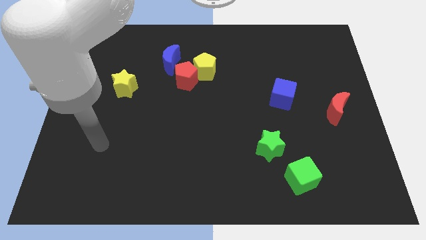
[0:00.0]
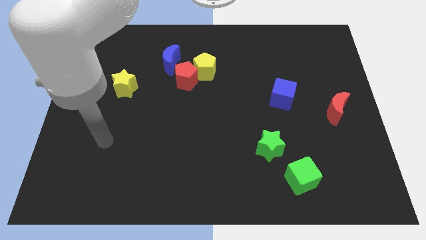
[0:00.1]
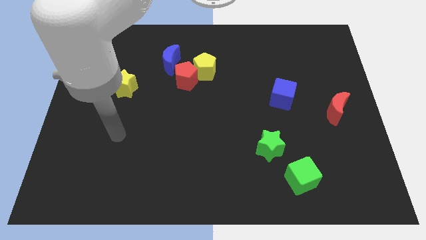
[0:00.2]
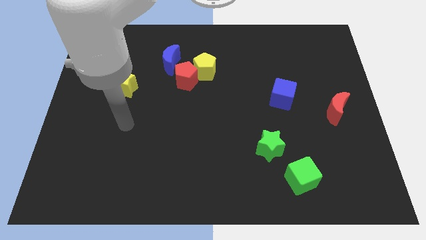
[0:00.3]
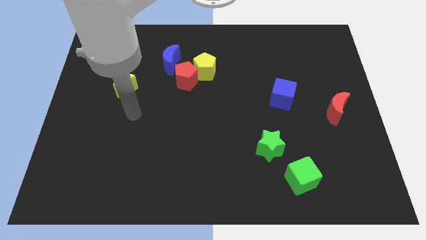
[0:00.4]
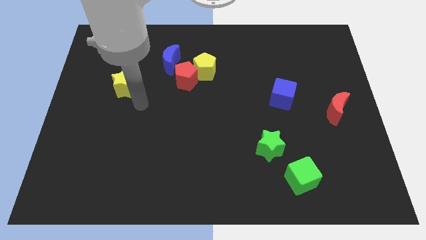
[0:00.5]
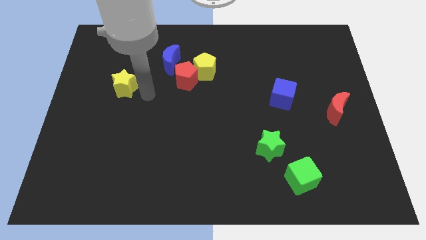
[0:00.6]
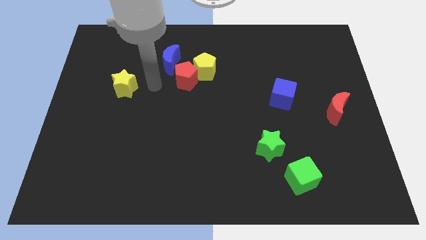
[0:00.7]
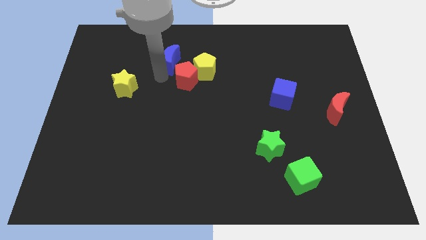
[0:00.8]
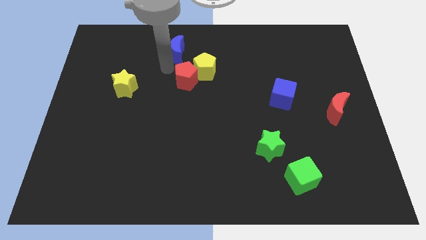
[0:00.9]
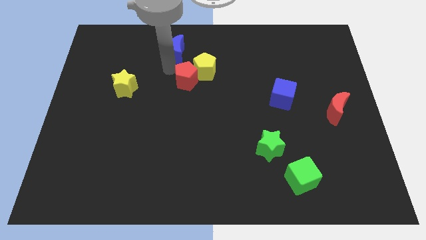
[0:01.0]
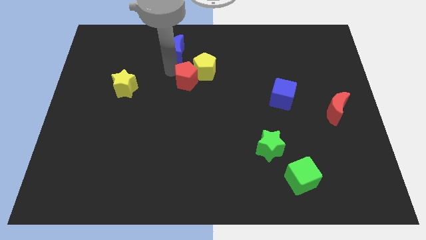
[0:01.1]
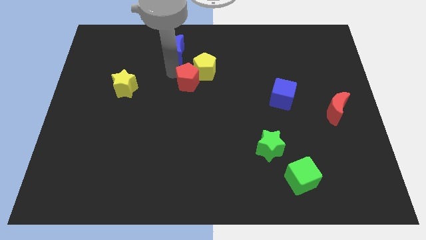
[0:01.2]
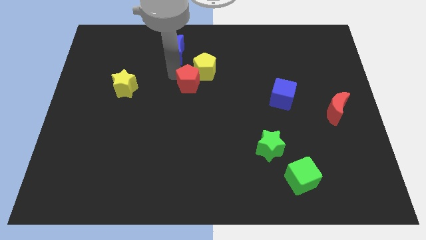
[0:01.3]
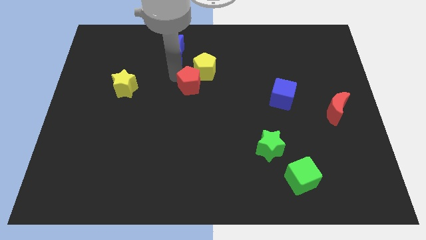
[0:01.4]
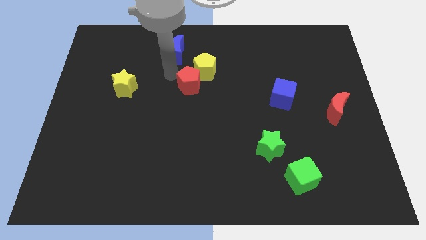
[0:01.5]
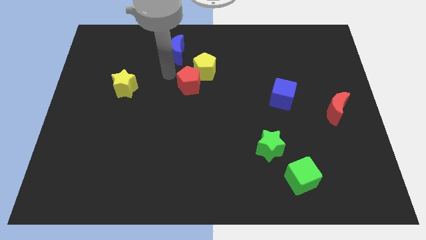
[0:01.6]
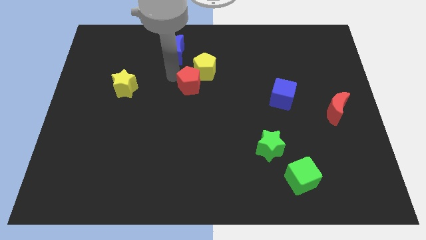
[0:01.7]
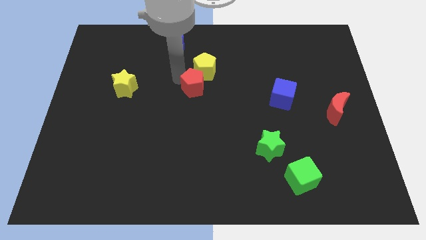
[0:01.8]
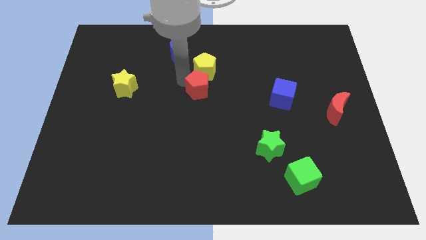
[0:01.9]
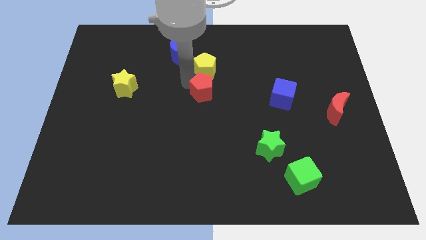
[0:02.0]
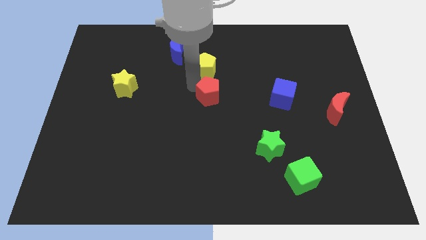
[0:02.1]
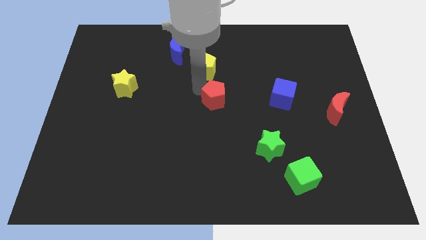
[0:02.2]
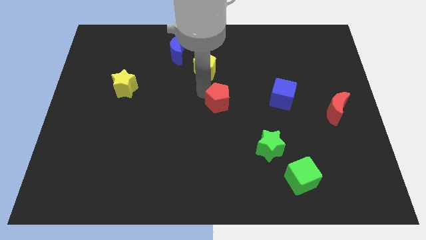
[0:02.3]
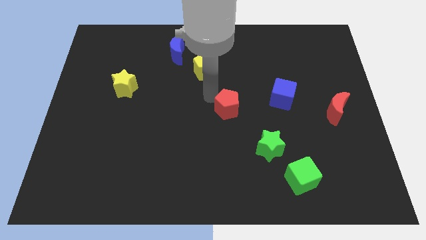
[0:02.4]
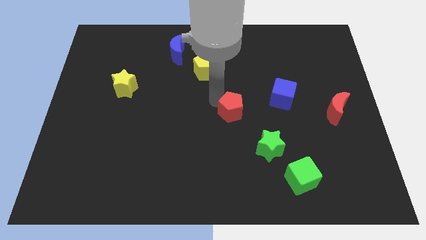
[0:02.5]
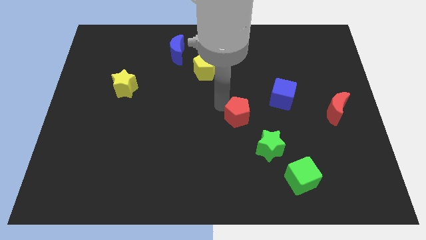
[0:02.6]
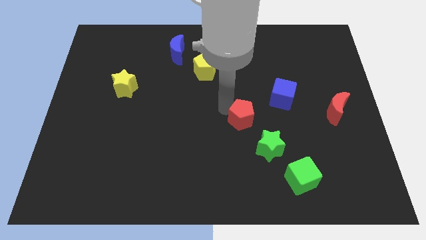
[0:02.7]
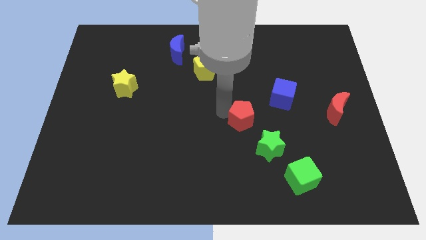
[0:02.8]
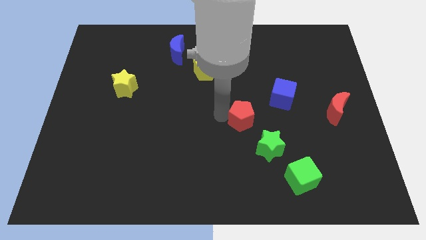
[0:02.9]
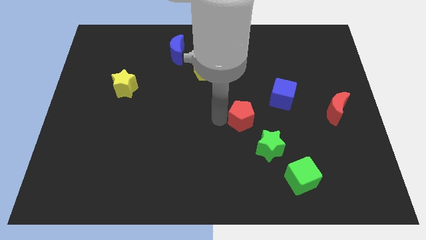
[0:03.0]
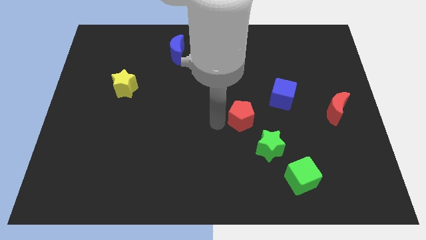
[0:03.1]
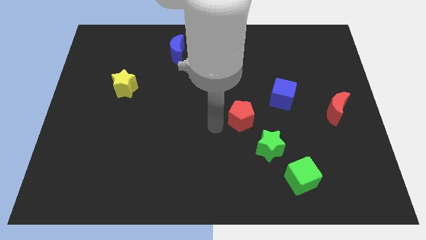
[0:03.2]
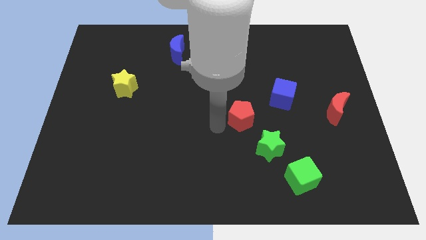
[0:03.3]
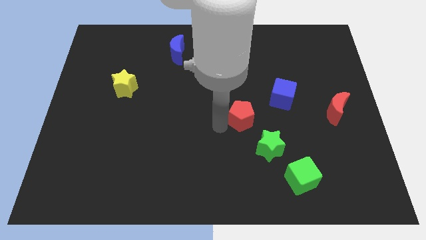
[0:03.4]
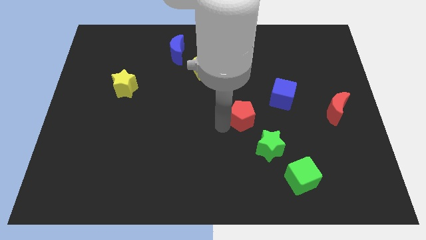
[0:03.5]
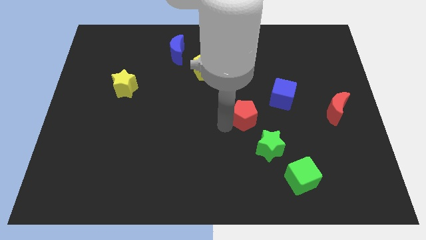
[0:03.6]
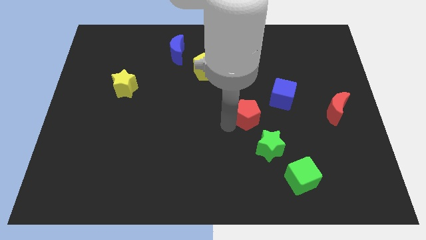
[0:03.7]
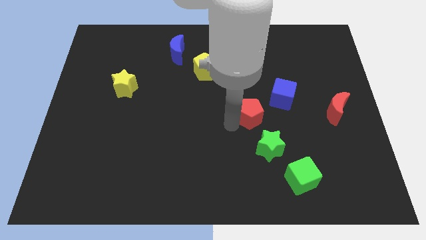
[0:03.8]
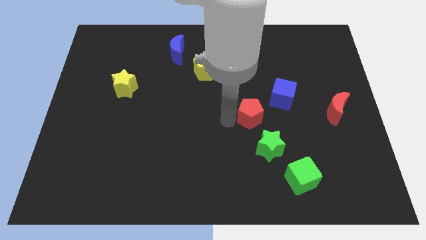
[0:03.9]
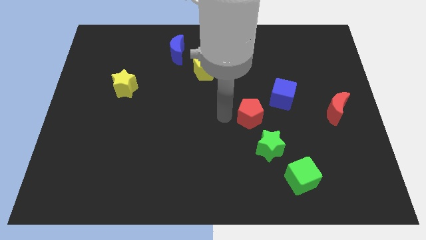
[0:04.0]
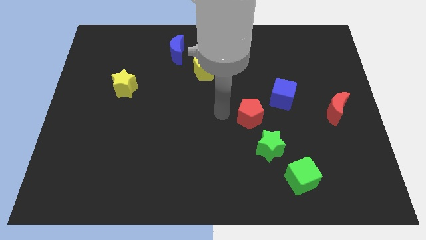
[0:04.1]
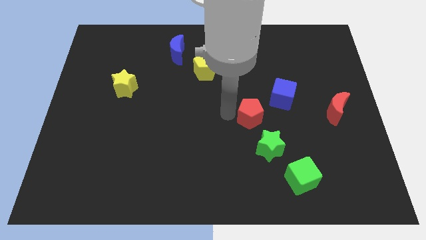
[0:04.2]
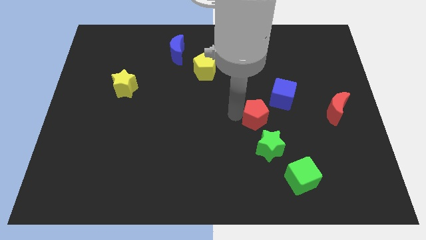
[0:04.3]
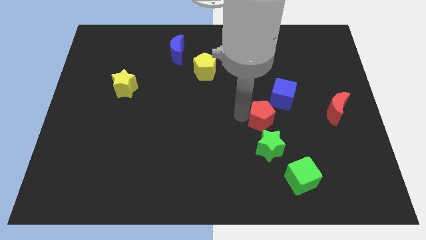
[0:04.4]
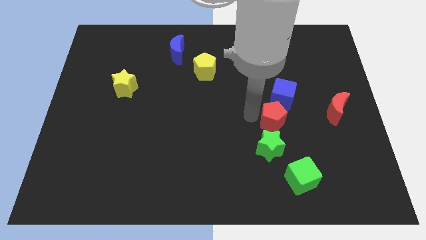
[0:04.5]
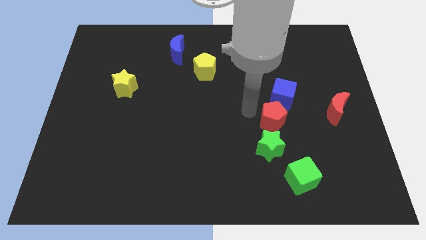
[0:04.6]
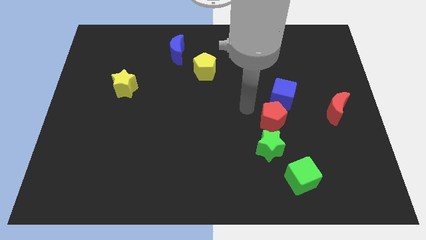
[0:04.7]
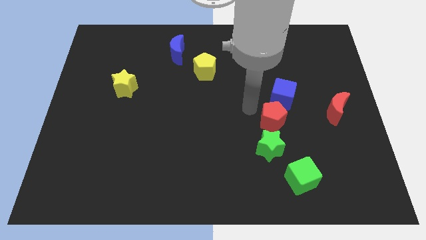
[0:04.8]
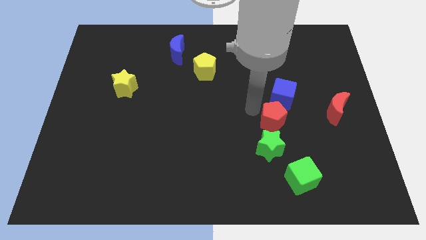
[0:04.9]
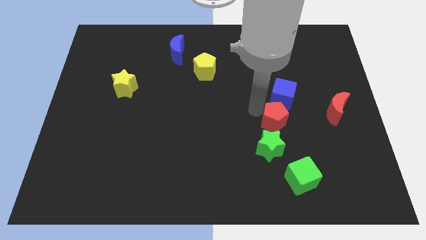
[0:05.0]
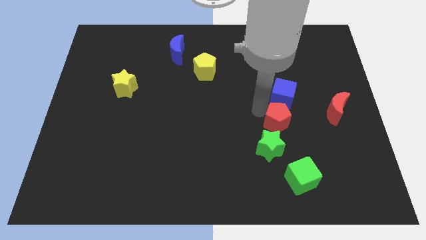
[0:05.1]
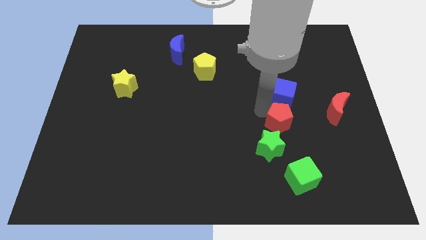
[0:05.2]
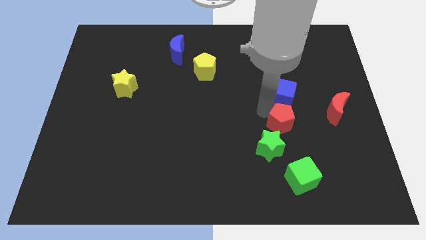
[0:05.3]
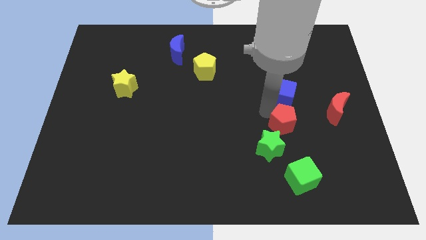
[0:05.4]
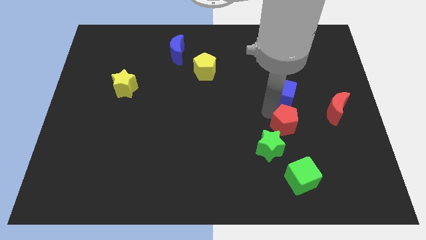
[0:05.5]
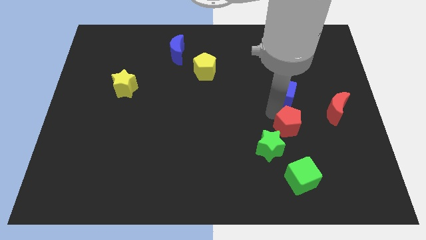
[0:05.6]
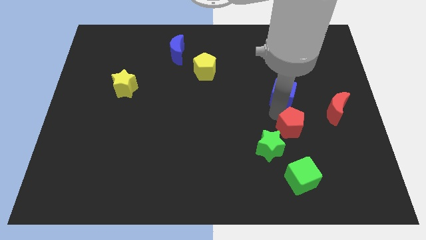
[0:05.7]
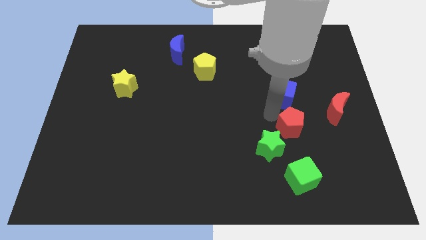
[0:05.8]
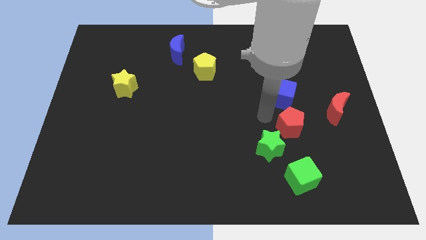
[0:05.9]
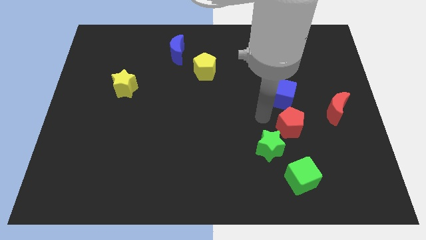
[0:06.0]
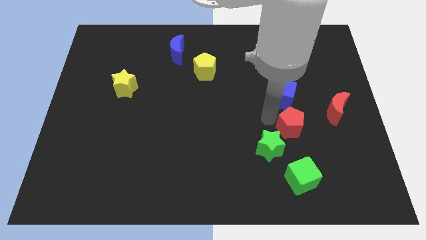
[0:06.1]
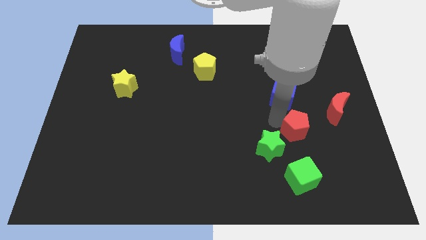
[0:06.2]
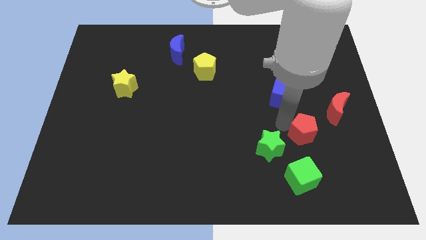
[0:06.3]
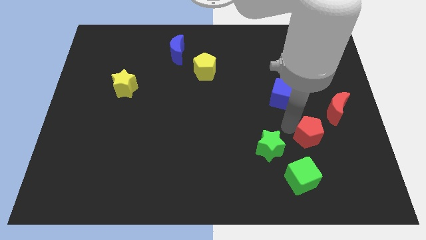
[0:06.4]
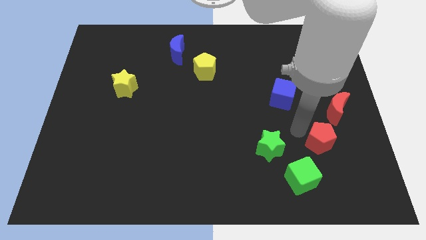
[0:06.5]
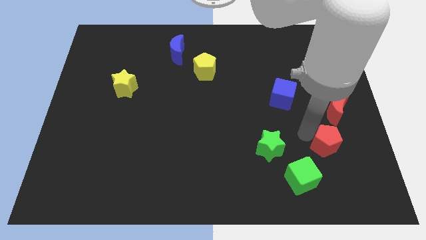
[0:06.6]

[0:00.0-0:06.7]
put the red pentagon below the red moon
